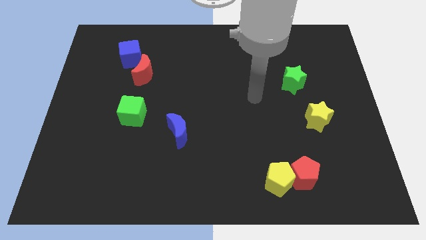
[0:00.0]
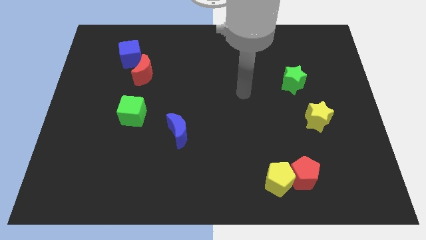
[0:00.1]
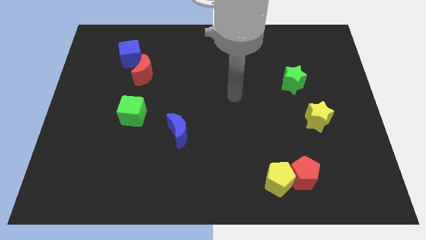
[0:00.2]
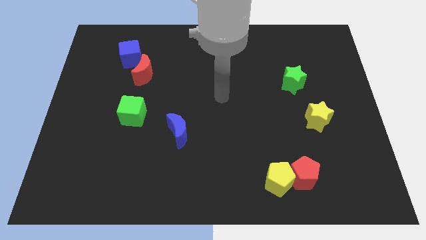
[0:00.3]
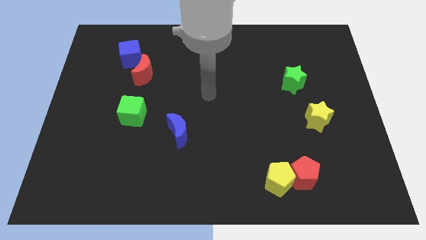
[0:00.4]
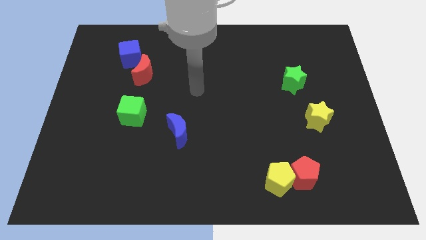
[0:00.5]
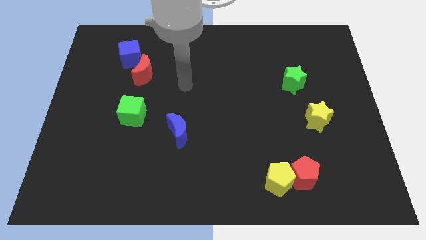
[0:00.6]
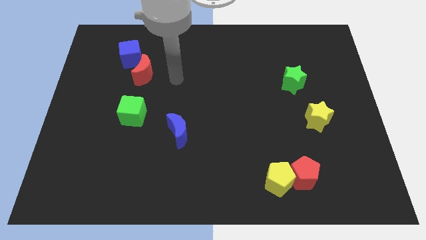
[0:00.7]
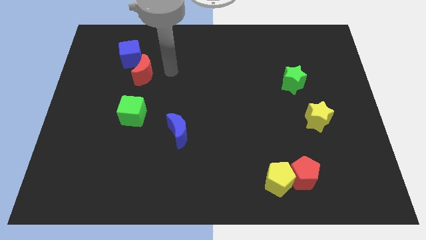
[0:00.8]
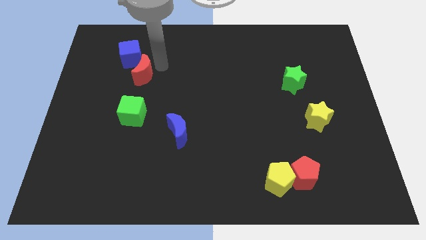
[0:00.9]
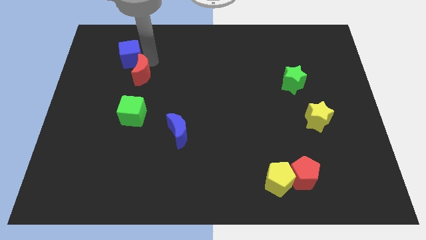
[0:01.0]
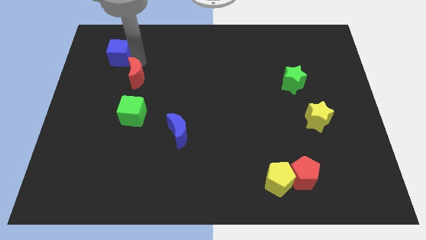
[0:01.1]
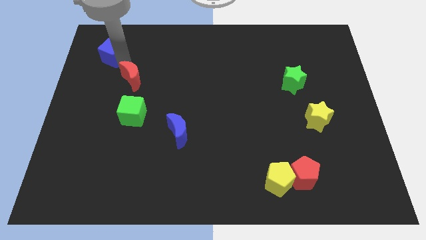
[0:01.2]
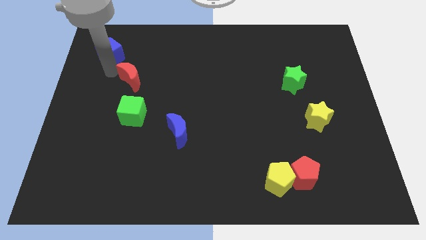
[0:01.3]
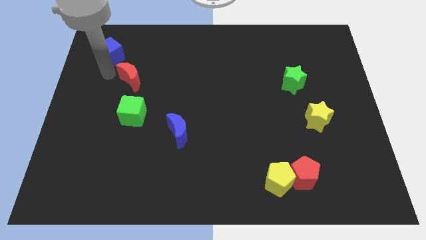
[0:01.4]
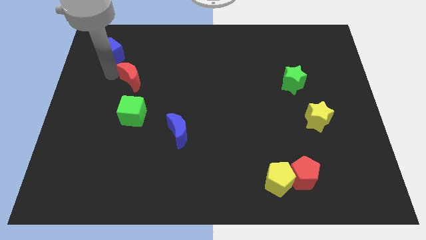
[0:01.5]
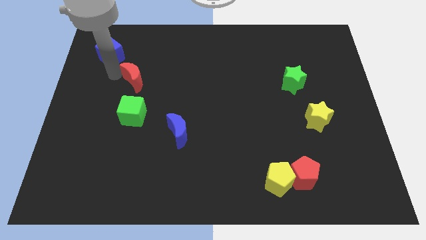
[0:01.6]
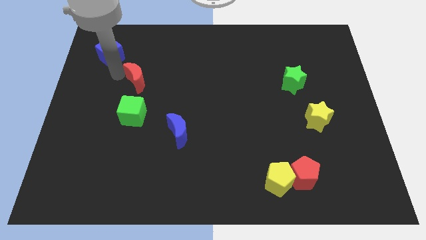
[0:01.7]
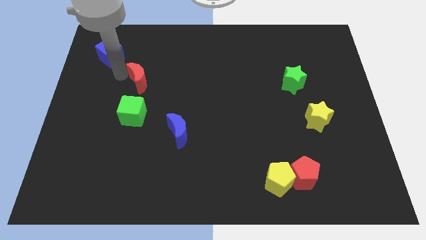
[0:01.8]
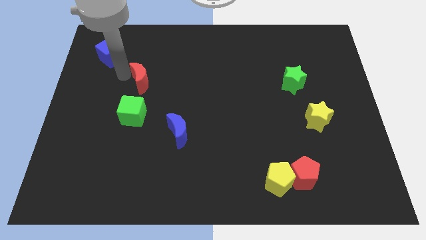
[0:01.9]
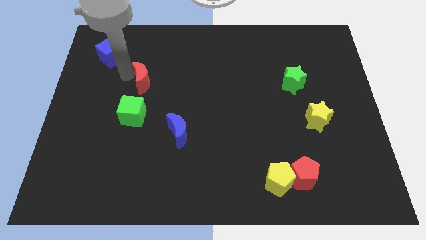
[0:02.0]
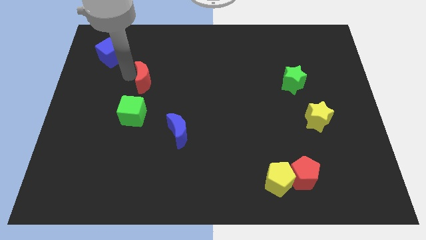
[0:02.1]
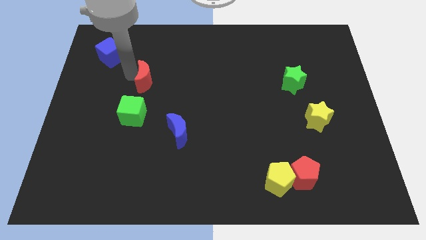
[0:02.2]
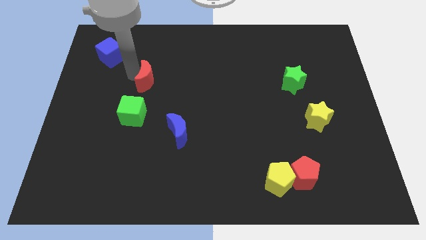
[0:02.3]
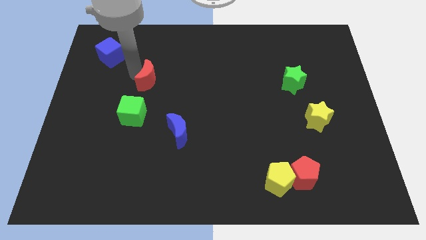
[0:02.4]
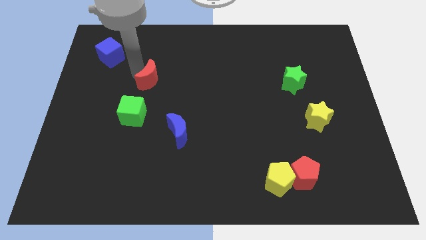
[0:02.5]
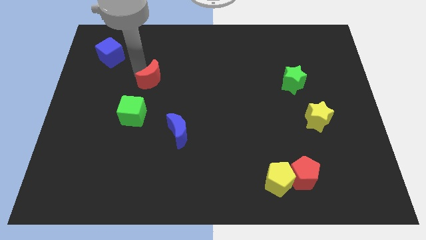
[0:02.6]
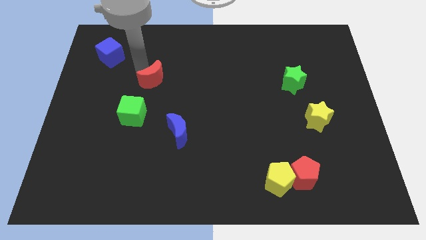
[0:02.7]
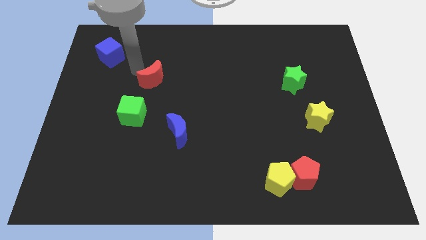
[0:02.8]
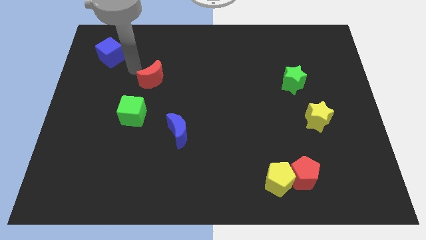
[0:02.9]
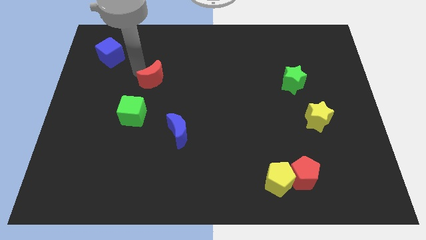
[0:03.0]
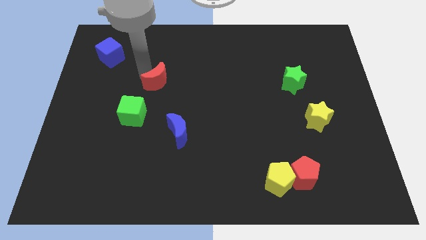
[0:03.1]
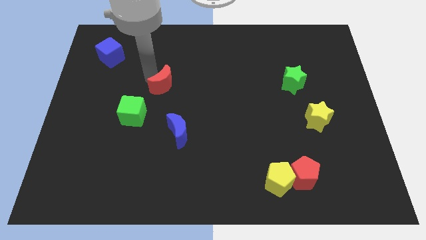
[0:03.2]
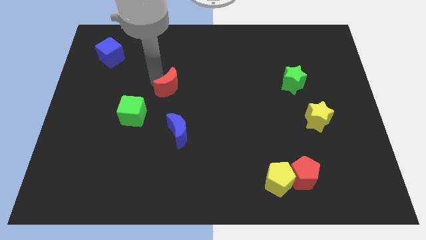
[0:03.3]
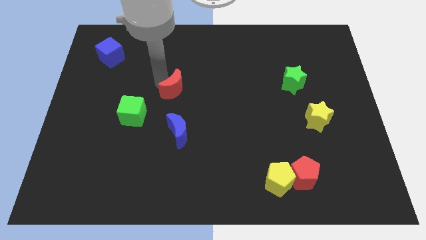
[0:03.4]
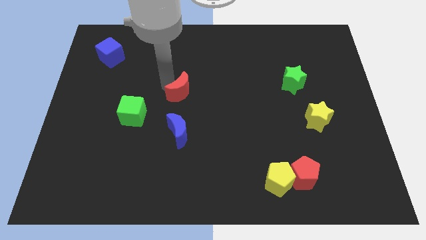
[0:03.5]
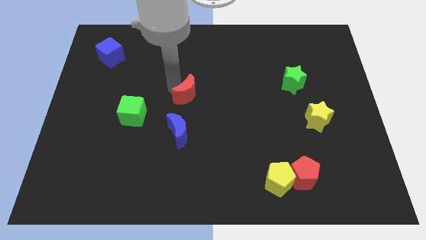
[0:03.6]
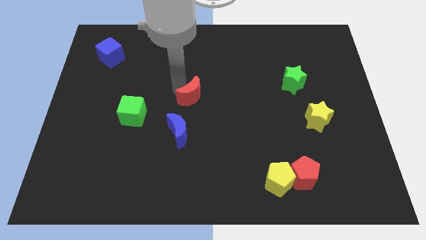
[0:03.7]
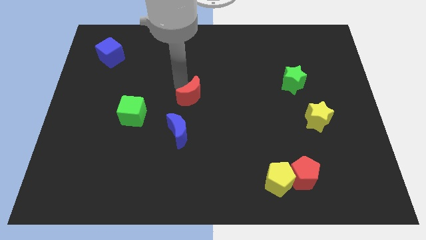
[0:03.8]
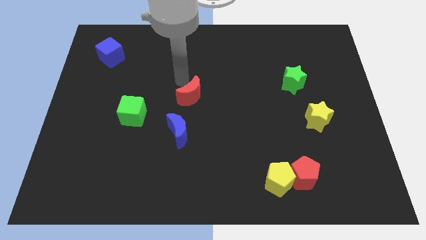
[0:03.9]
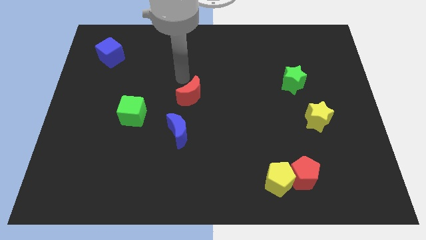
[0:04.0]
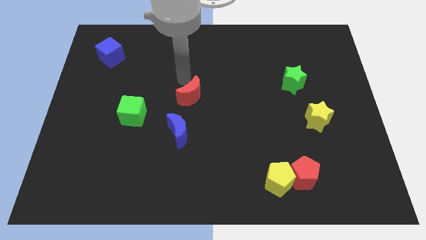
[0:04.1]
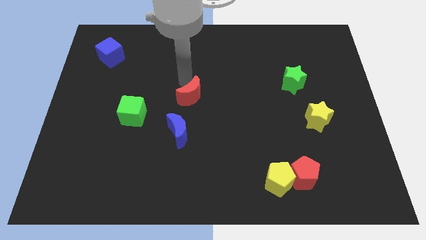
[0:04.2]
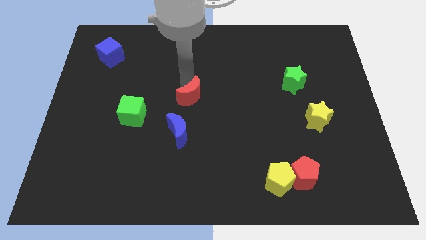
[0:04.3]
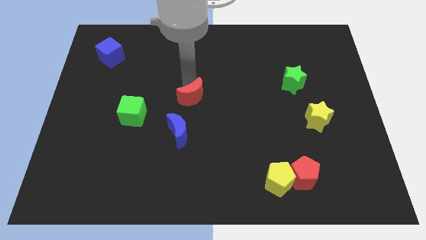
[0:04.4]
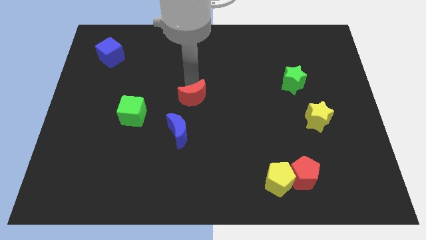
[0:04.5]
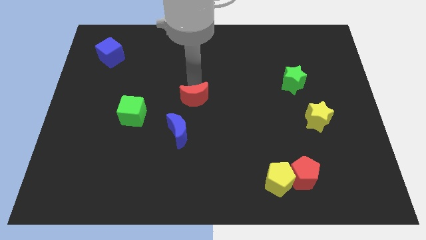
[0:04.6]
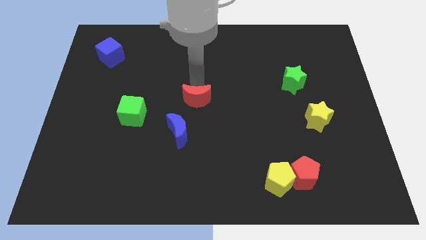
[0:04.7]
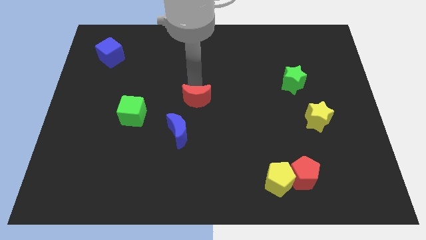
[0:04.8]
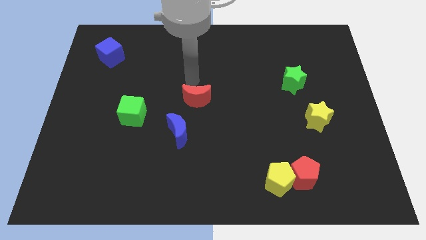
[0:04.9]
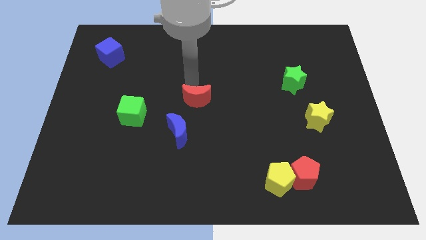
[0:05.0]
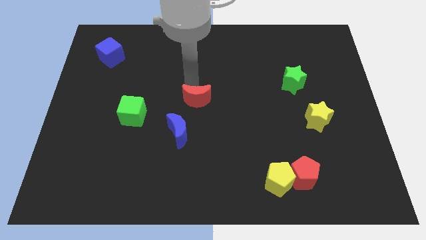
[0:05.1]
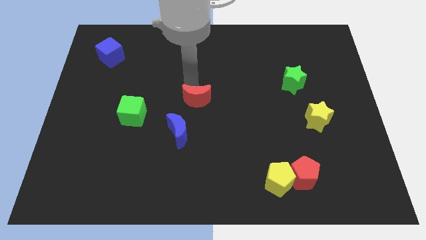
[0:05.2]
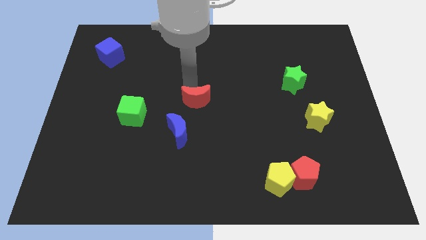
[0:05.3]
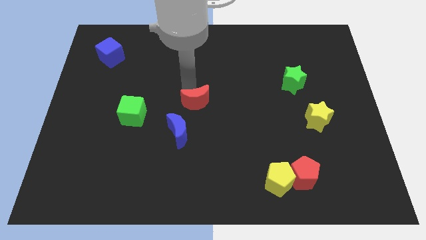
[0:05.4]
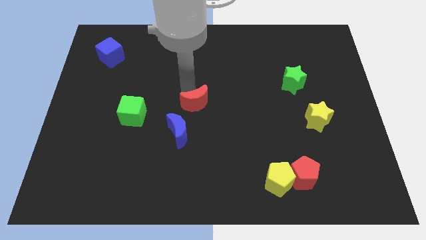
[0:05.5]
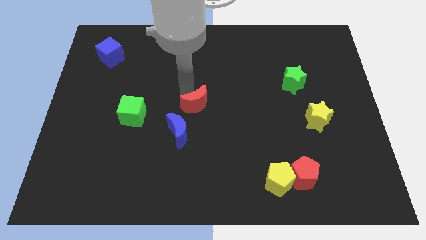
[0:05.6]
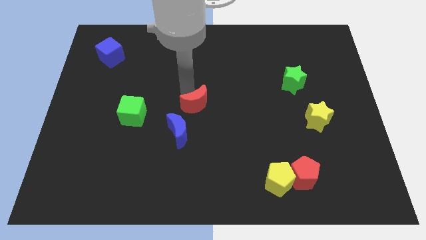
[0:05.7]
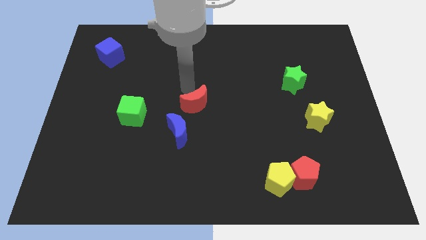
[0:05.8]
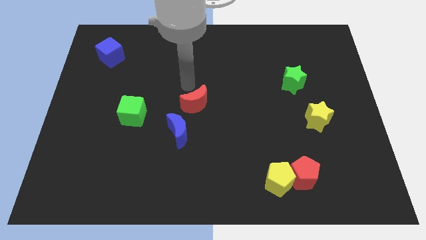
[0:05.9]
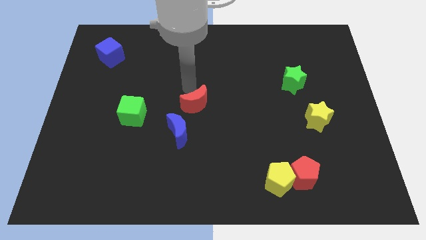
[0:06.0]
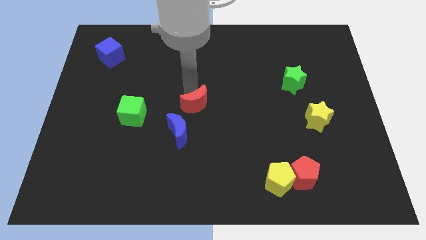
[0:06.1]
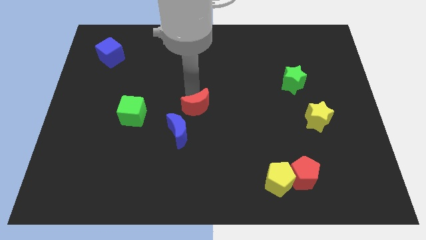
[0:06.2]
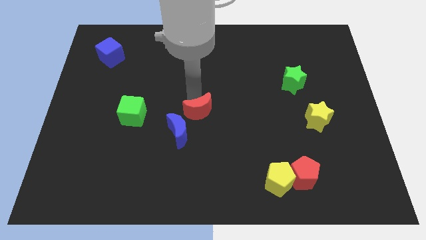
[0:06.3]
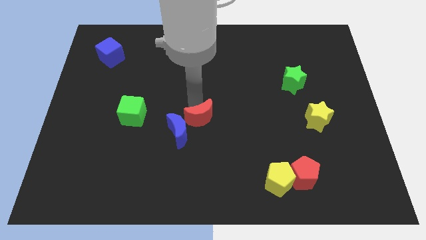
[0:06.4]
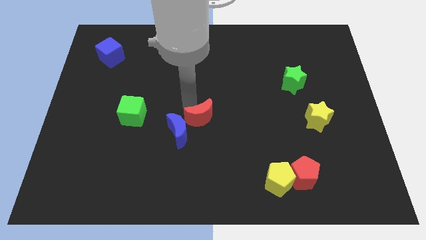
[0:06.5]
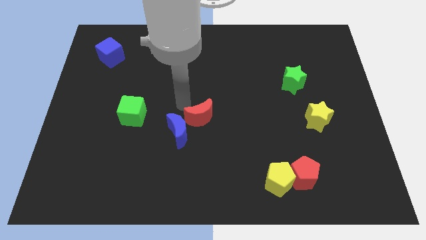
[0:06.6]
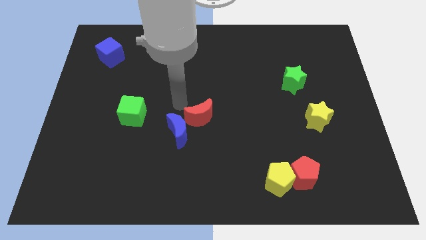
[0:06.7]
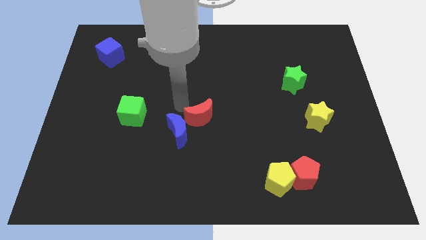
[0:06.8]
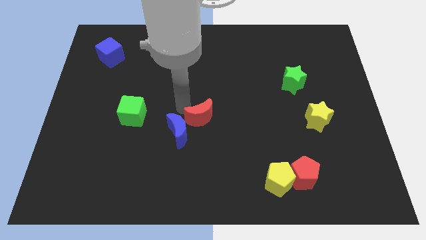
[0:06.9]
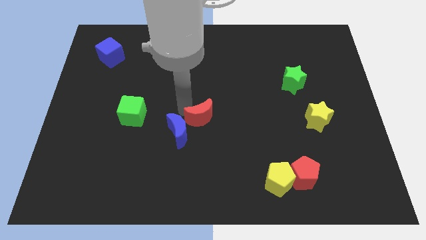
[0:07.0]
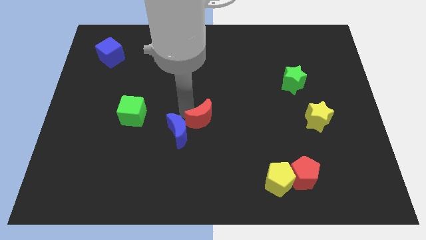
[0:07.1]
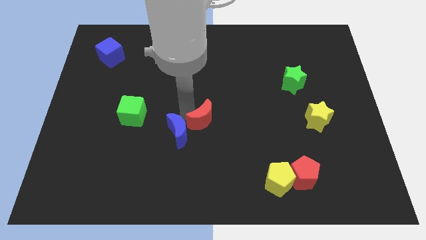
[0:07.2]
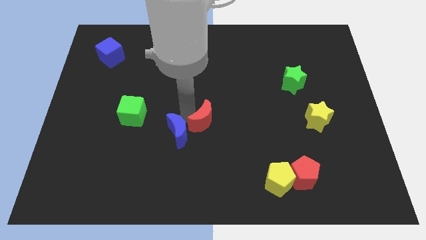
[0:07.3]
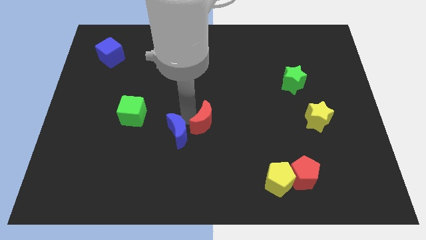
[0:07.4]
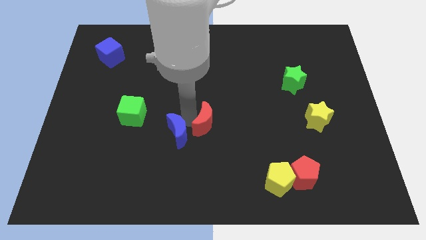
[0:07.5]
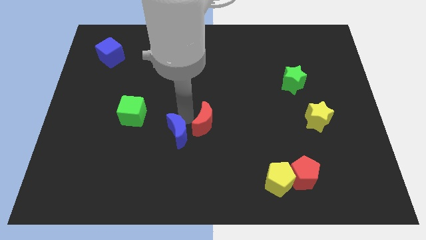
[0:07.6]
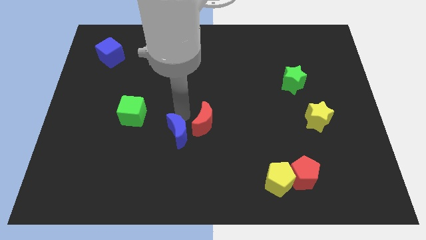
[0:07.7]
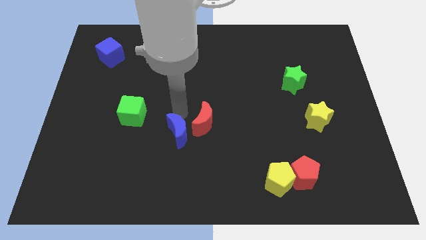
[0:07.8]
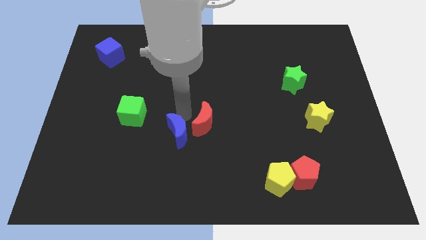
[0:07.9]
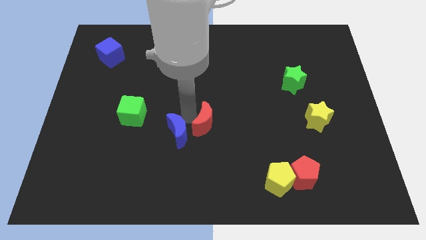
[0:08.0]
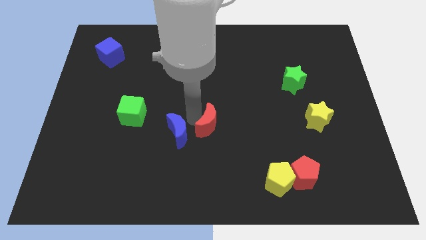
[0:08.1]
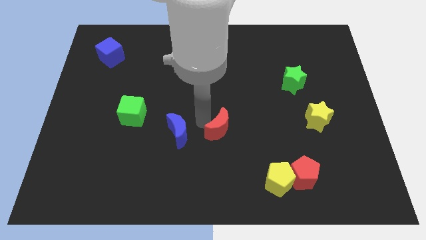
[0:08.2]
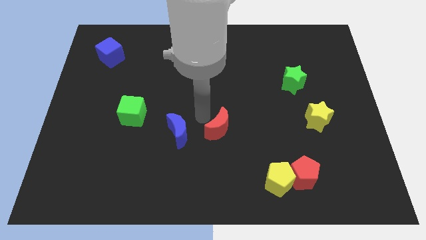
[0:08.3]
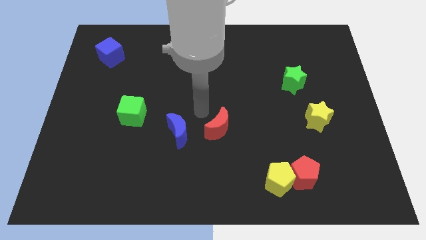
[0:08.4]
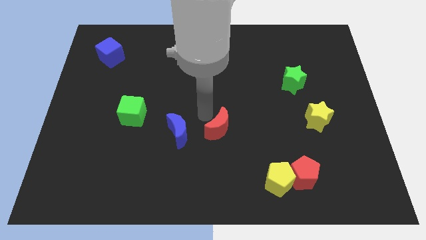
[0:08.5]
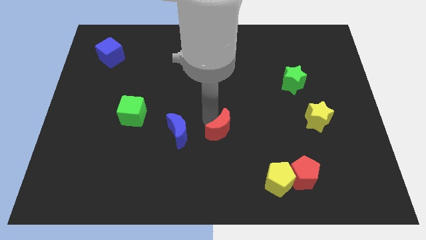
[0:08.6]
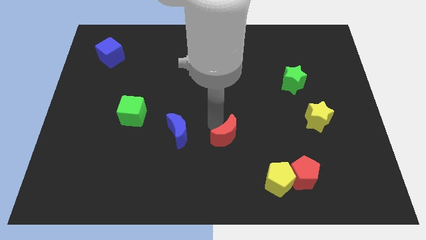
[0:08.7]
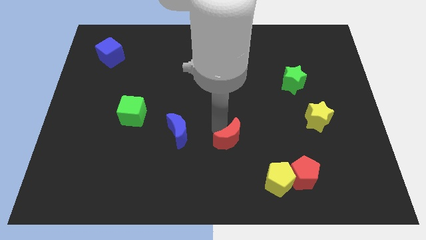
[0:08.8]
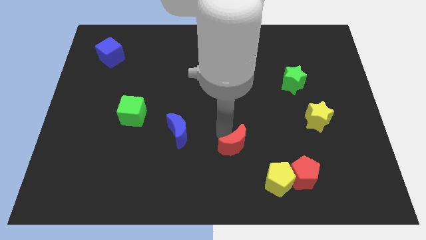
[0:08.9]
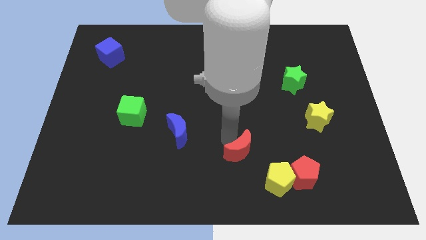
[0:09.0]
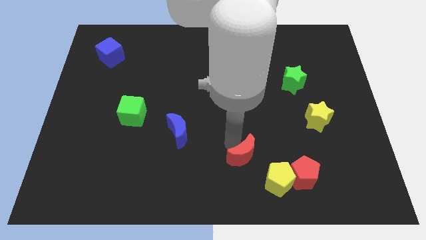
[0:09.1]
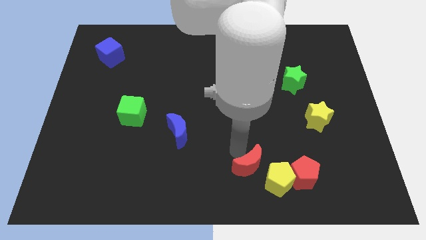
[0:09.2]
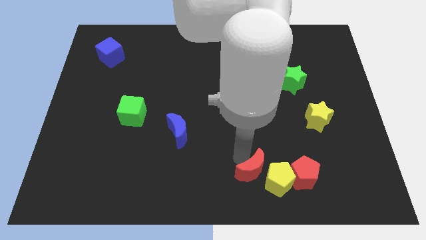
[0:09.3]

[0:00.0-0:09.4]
push the red moon close to the yellow pentagon
